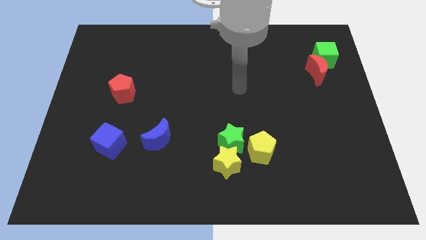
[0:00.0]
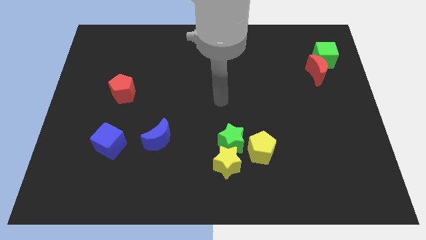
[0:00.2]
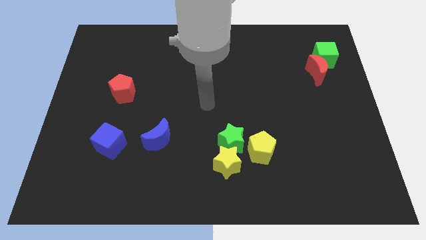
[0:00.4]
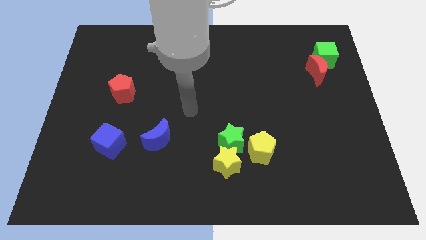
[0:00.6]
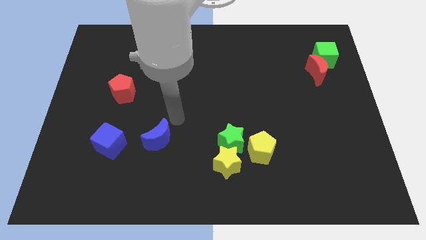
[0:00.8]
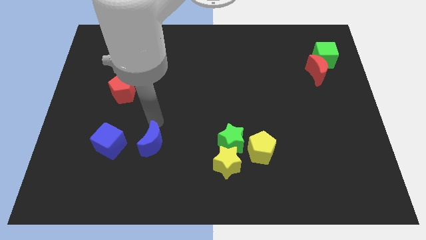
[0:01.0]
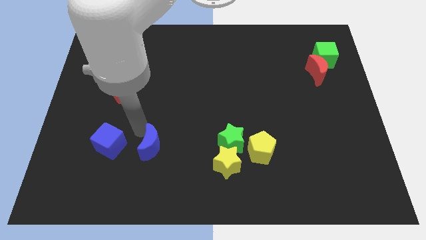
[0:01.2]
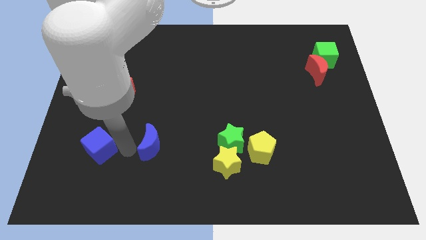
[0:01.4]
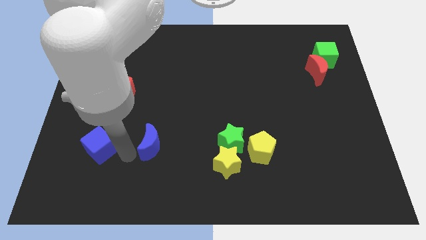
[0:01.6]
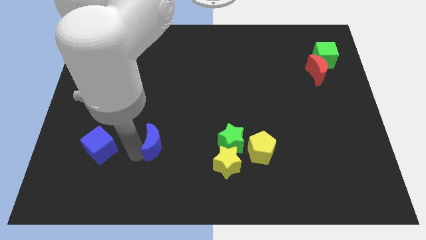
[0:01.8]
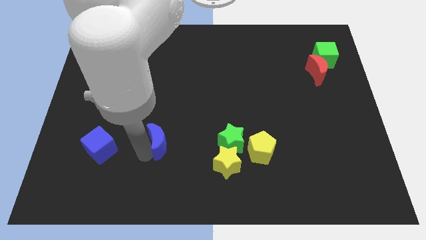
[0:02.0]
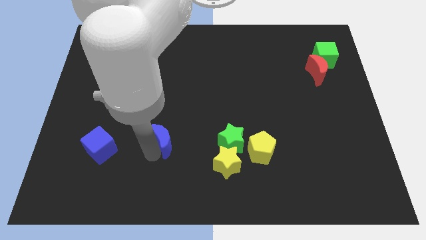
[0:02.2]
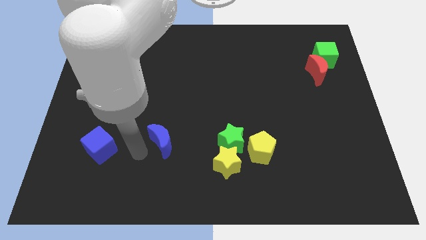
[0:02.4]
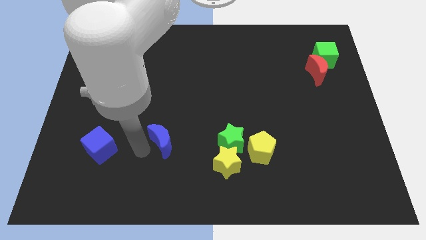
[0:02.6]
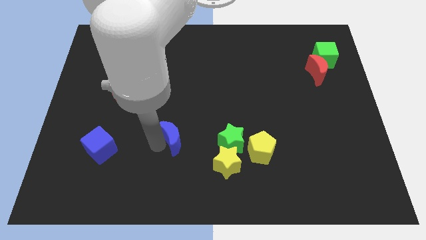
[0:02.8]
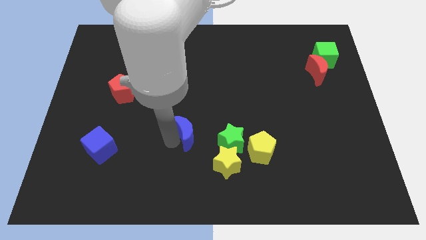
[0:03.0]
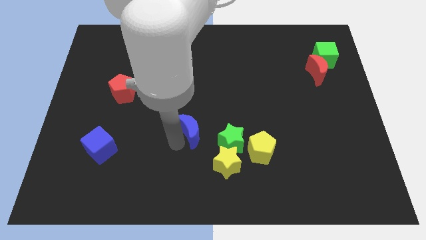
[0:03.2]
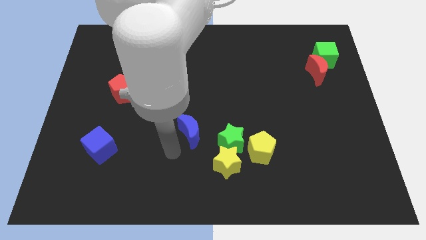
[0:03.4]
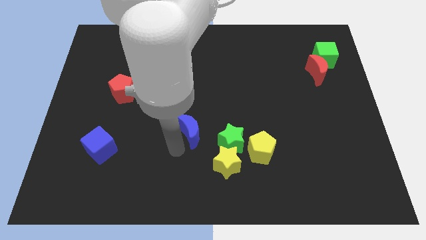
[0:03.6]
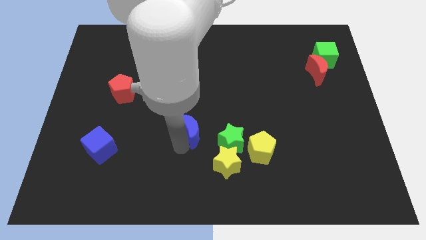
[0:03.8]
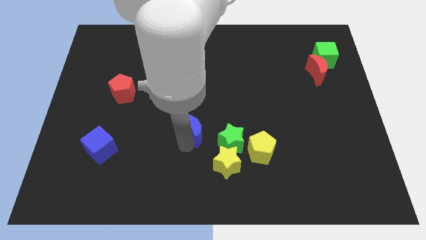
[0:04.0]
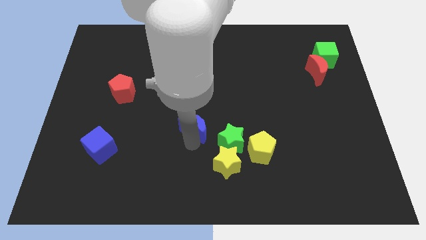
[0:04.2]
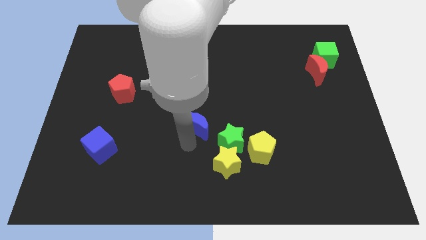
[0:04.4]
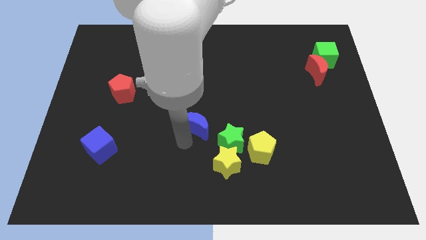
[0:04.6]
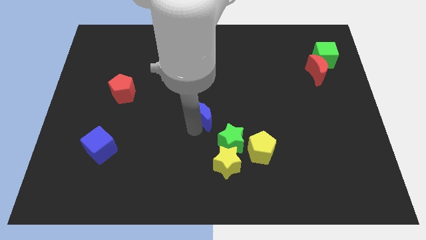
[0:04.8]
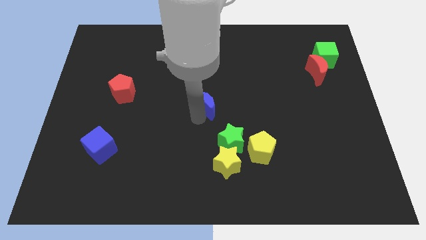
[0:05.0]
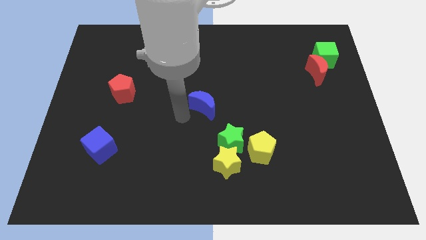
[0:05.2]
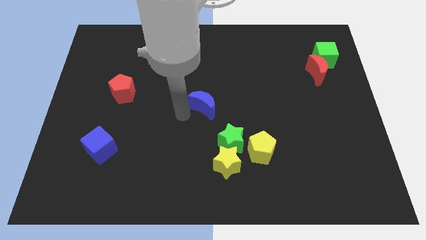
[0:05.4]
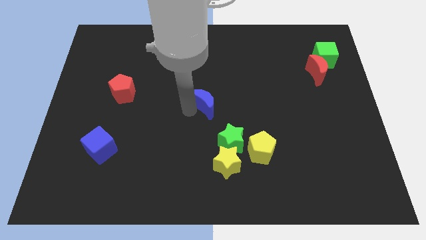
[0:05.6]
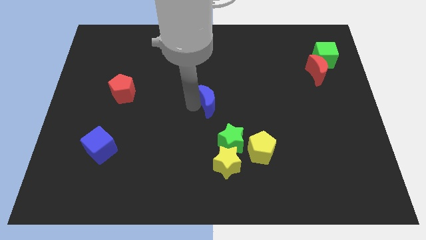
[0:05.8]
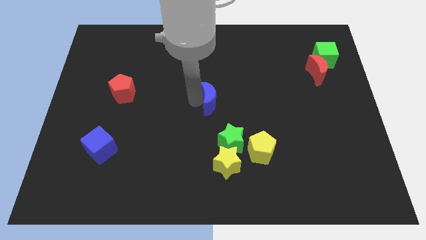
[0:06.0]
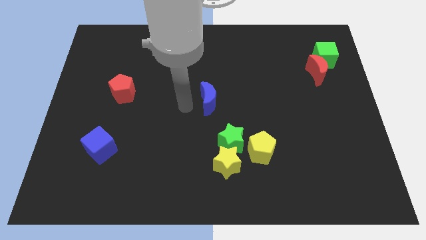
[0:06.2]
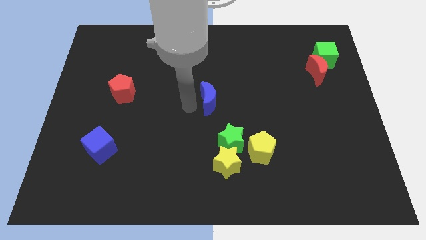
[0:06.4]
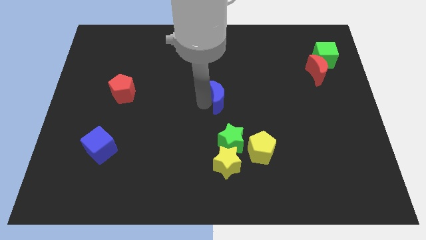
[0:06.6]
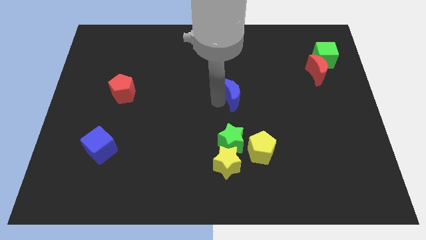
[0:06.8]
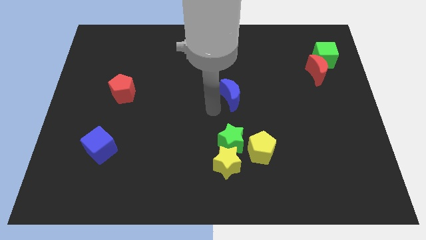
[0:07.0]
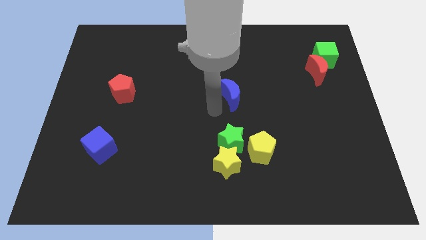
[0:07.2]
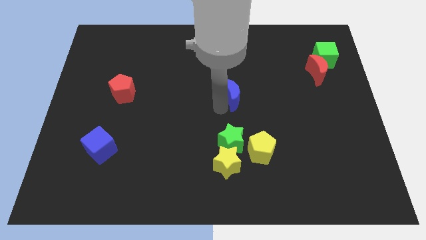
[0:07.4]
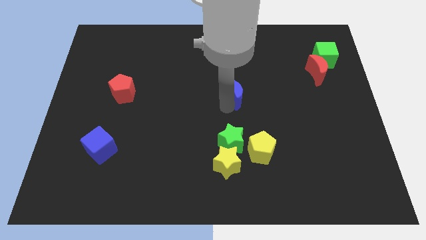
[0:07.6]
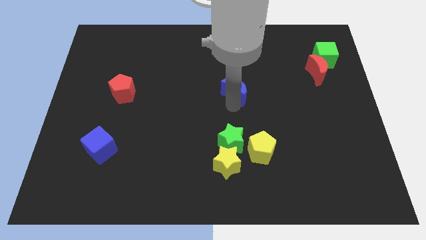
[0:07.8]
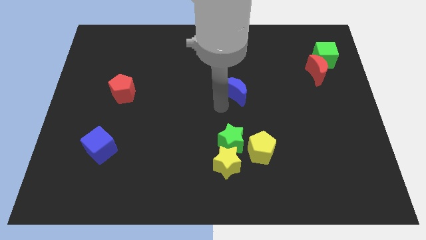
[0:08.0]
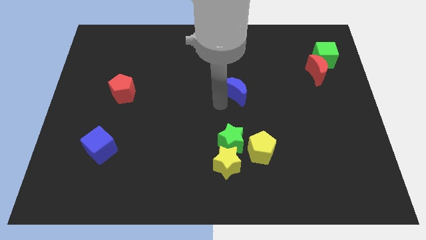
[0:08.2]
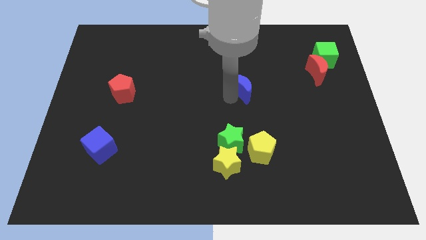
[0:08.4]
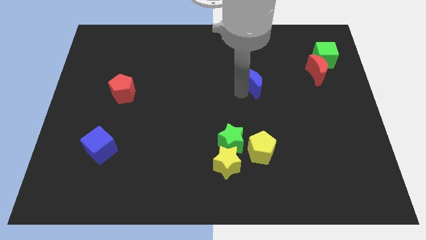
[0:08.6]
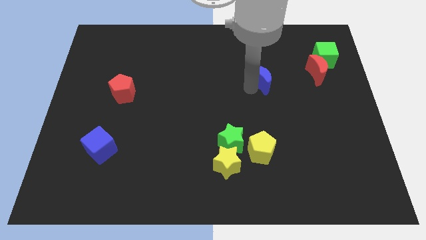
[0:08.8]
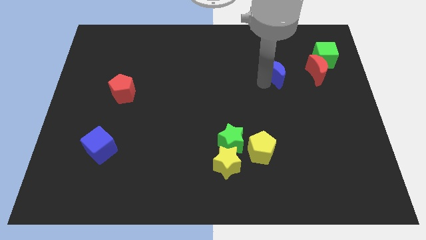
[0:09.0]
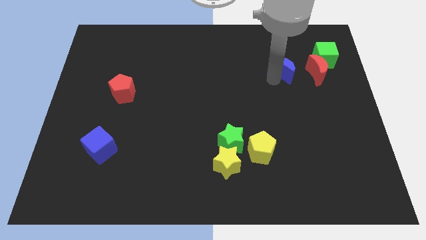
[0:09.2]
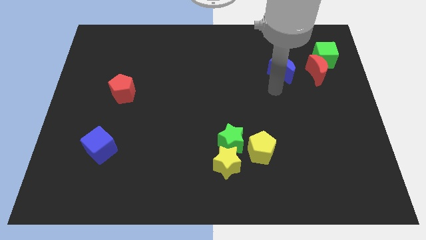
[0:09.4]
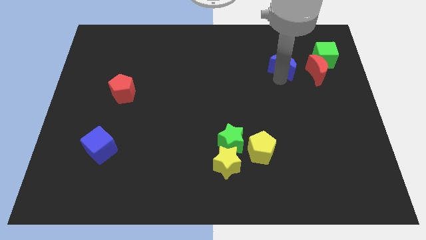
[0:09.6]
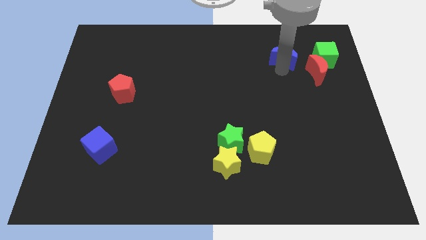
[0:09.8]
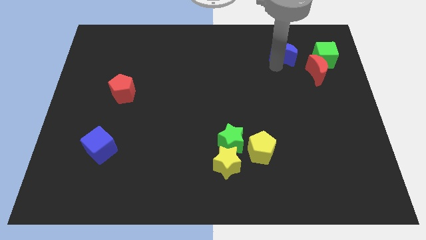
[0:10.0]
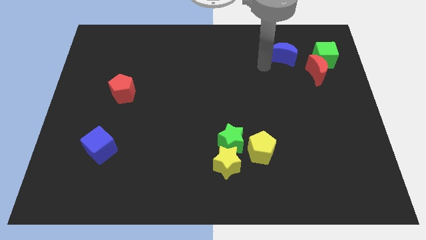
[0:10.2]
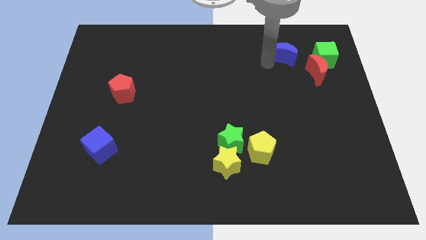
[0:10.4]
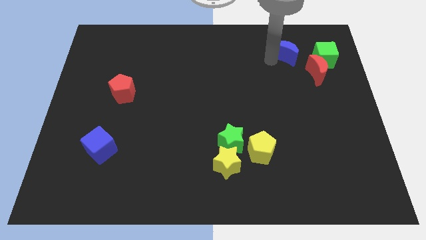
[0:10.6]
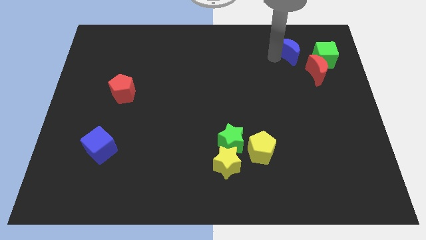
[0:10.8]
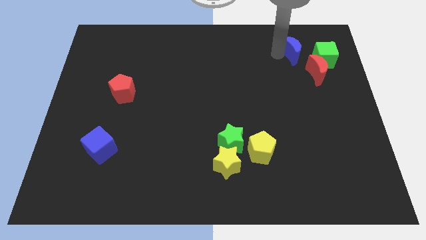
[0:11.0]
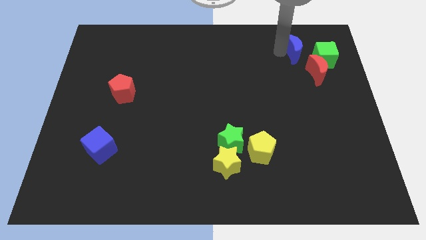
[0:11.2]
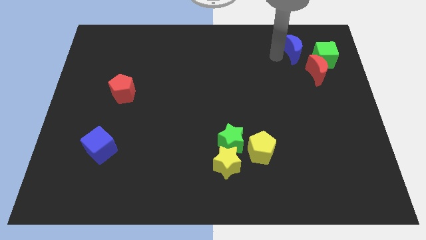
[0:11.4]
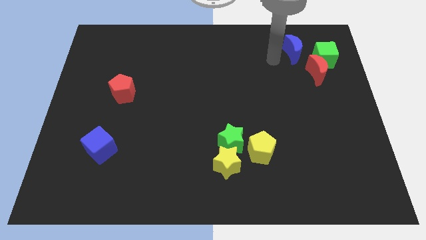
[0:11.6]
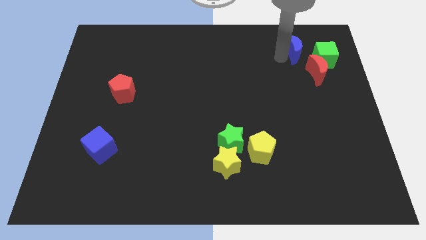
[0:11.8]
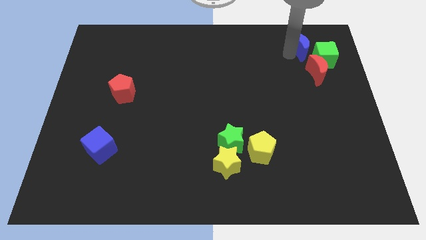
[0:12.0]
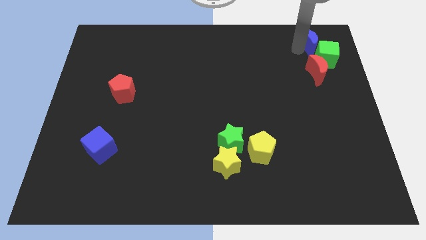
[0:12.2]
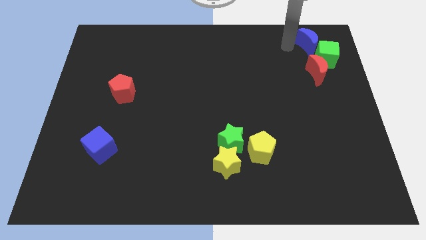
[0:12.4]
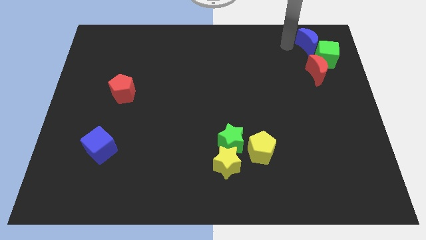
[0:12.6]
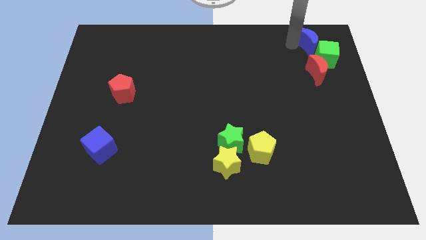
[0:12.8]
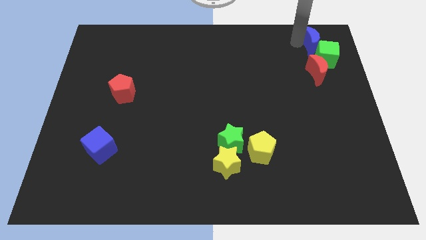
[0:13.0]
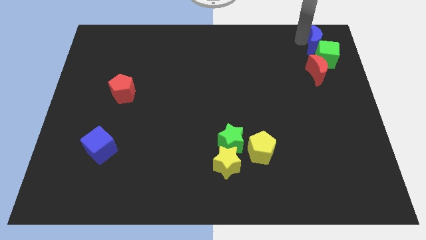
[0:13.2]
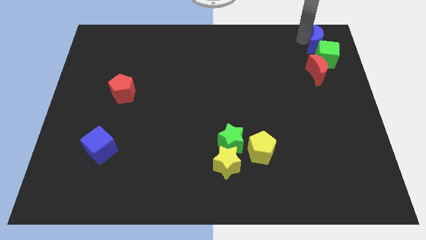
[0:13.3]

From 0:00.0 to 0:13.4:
slide the blue moon to the top right

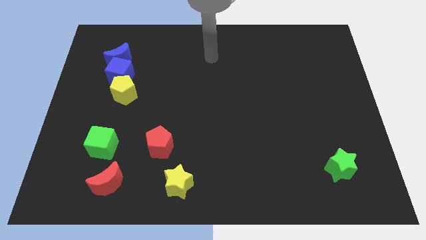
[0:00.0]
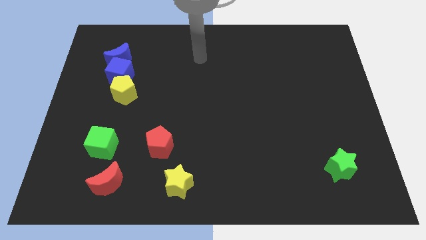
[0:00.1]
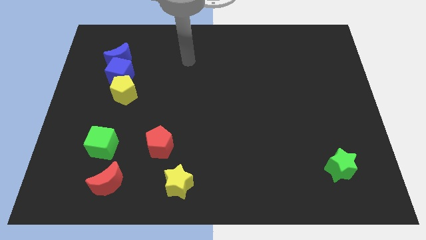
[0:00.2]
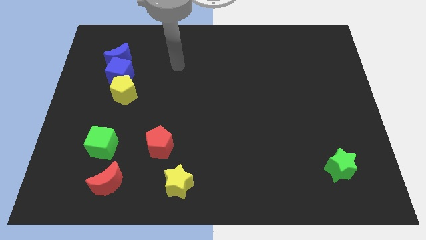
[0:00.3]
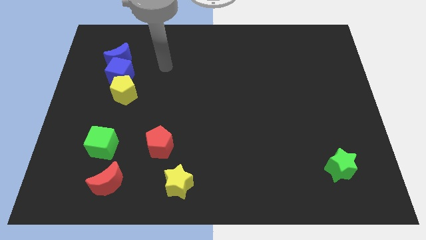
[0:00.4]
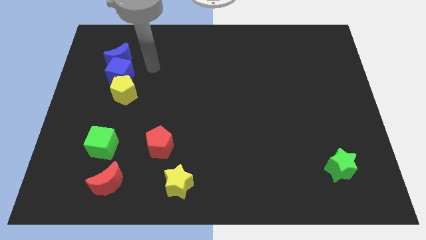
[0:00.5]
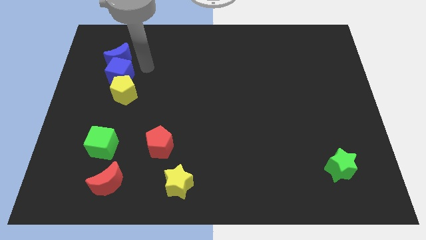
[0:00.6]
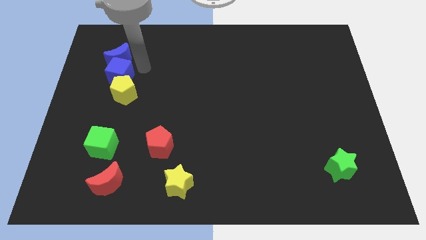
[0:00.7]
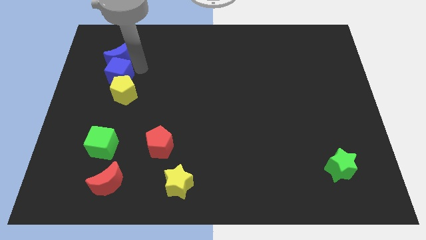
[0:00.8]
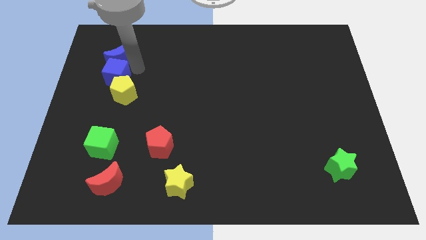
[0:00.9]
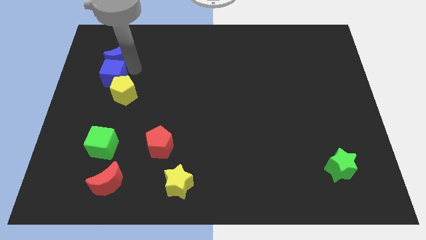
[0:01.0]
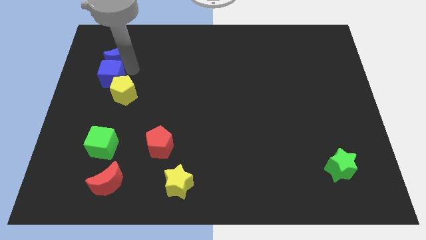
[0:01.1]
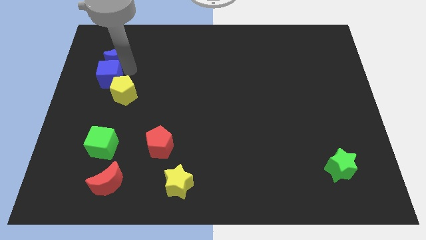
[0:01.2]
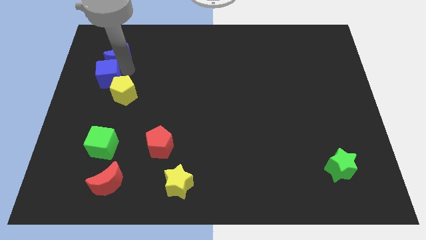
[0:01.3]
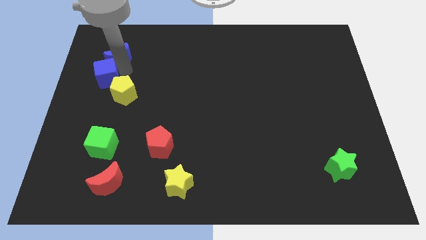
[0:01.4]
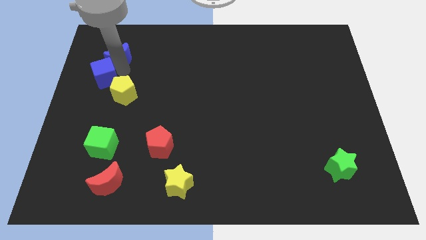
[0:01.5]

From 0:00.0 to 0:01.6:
put the blue cube to the left side
